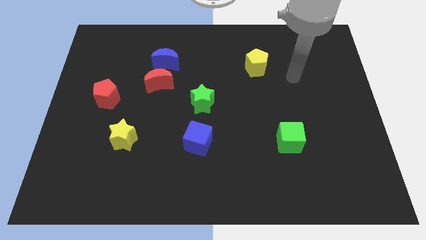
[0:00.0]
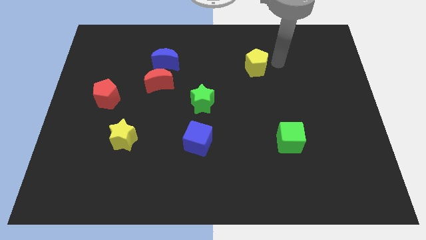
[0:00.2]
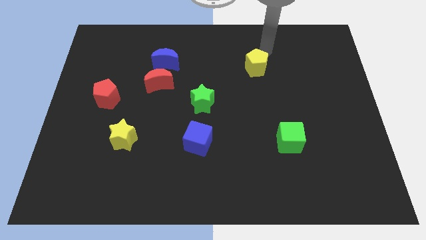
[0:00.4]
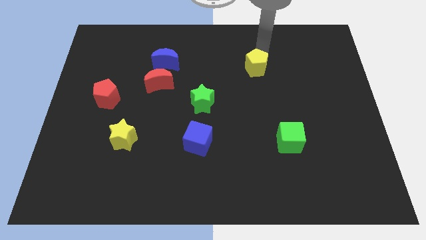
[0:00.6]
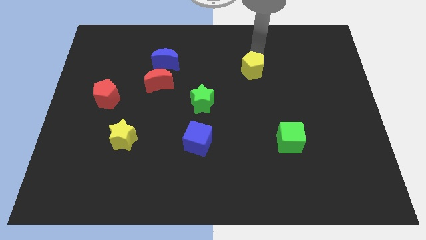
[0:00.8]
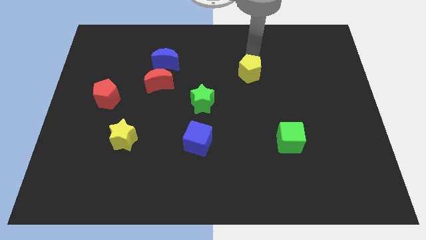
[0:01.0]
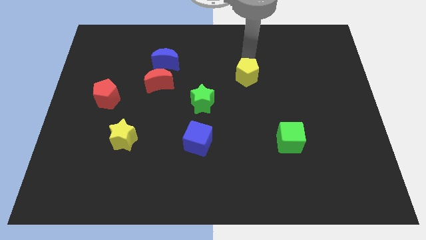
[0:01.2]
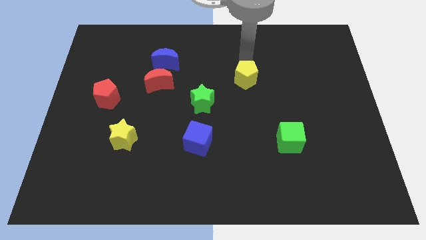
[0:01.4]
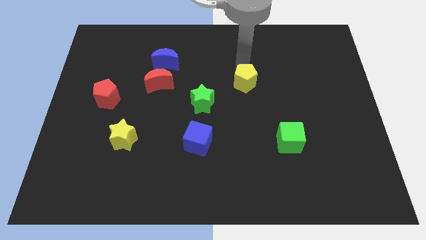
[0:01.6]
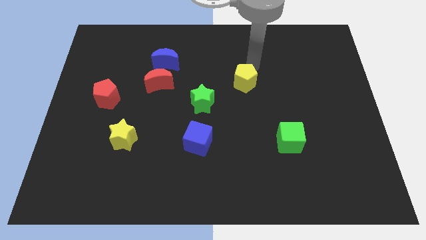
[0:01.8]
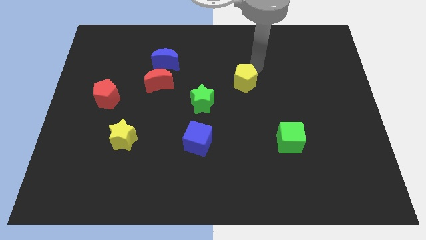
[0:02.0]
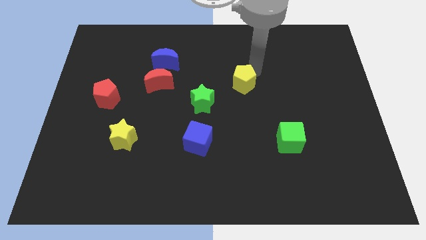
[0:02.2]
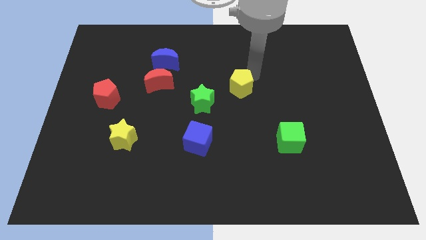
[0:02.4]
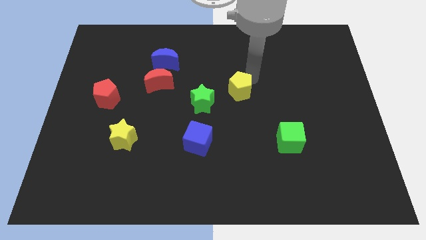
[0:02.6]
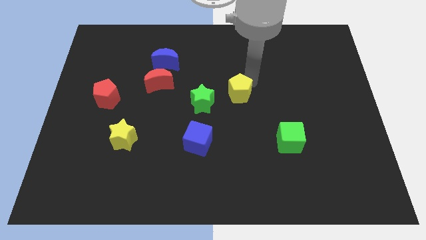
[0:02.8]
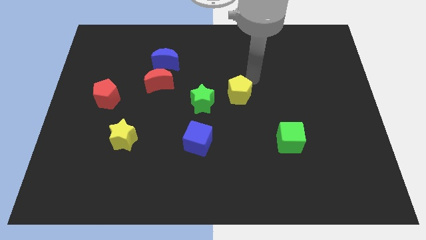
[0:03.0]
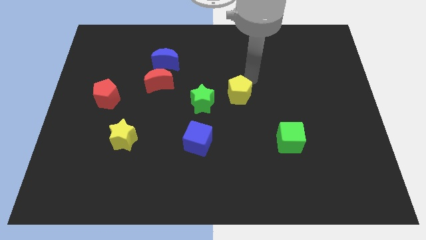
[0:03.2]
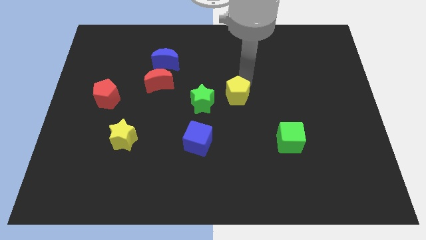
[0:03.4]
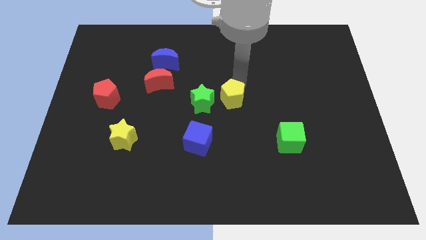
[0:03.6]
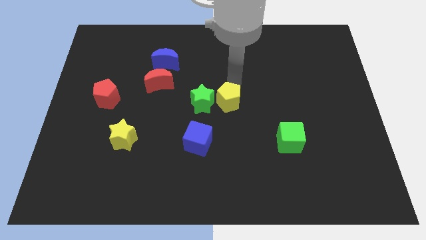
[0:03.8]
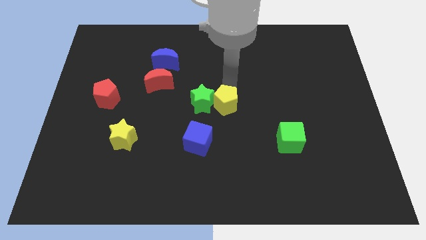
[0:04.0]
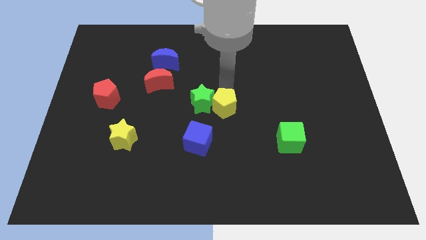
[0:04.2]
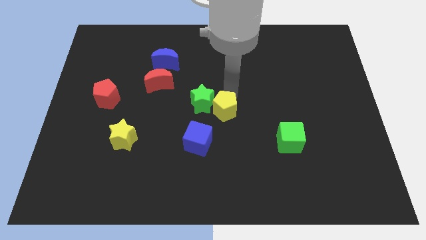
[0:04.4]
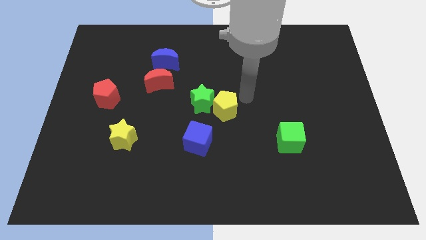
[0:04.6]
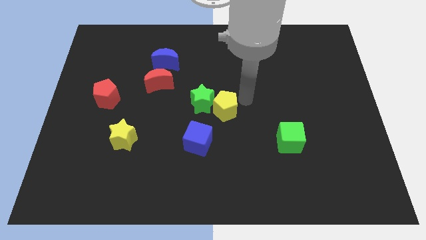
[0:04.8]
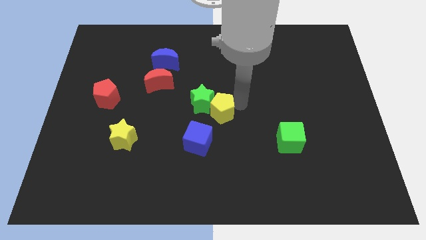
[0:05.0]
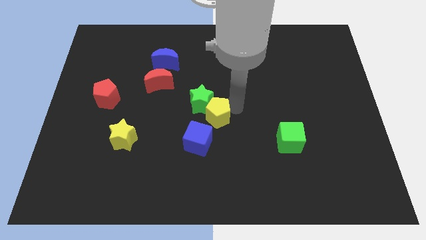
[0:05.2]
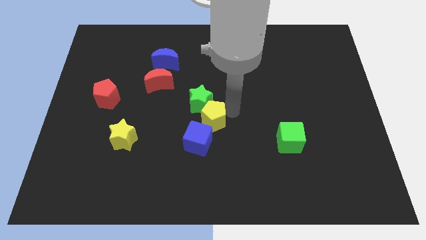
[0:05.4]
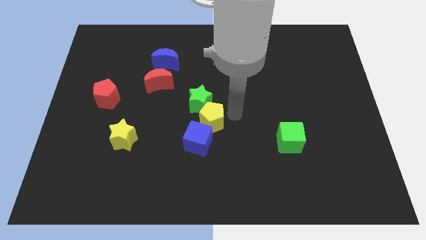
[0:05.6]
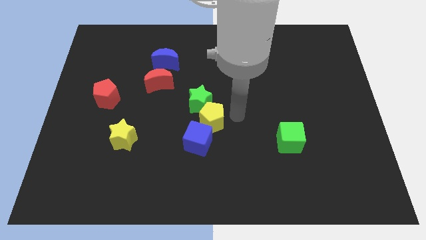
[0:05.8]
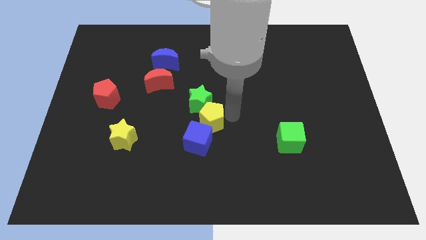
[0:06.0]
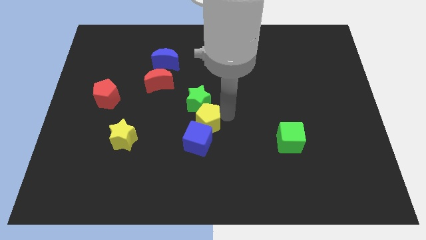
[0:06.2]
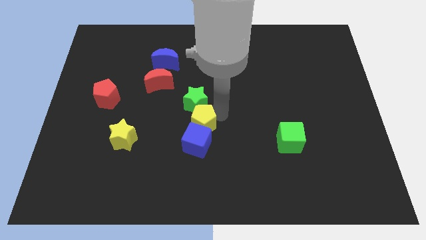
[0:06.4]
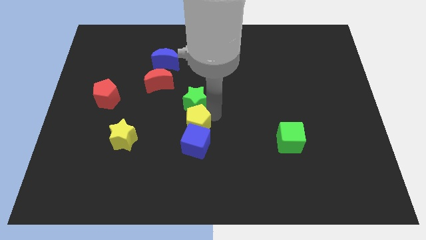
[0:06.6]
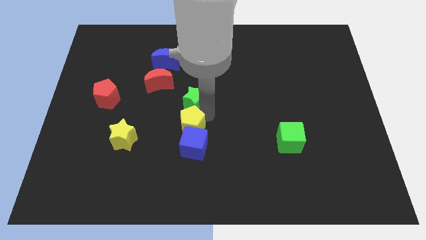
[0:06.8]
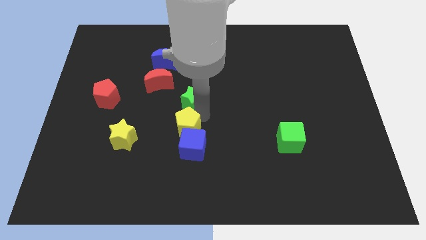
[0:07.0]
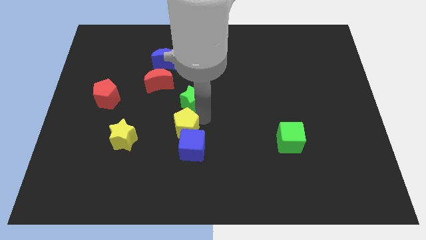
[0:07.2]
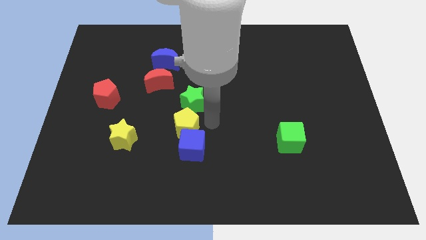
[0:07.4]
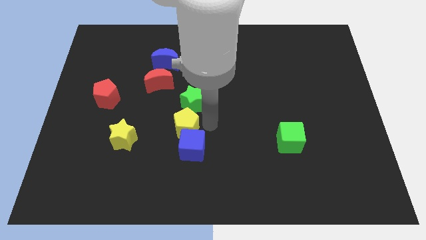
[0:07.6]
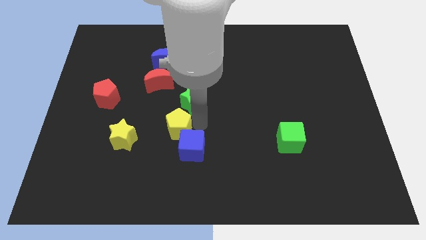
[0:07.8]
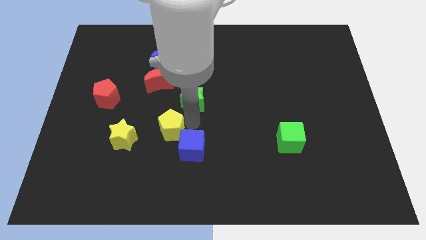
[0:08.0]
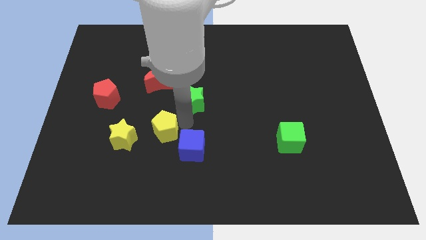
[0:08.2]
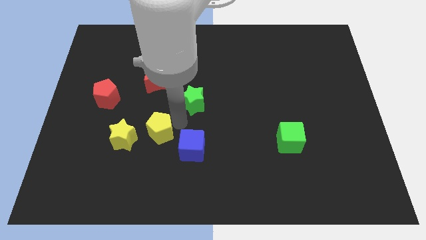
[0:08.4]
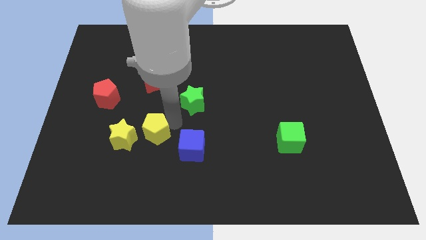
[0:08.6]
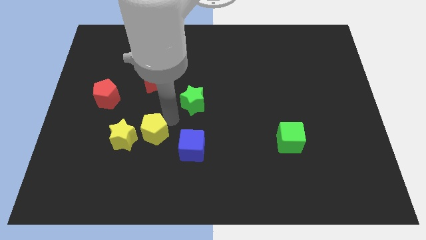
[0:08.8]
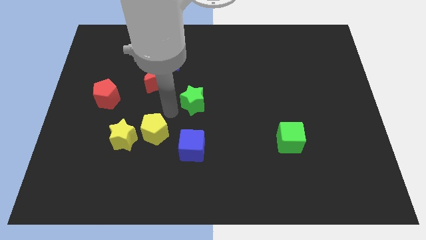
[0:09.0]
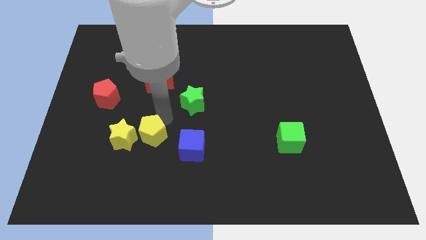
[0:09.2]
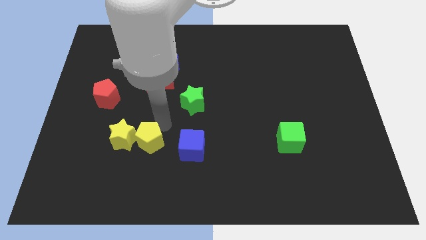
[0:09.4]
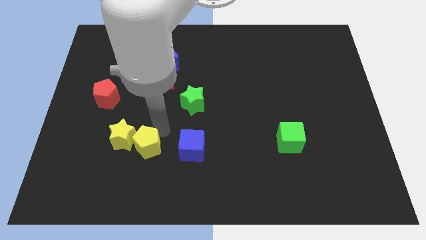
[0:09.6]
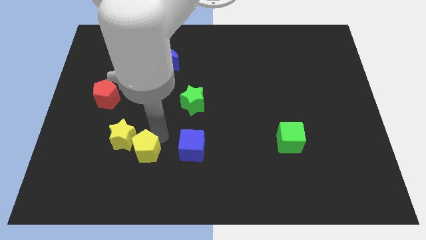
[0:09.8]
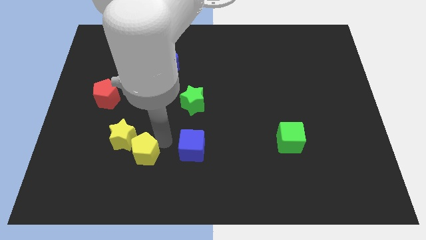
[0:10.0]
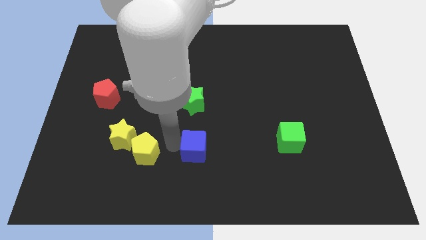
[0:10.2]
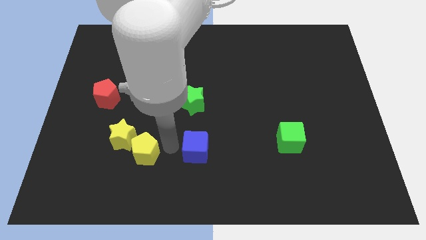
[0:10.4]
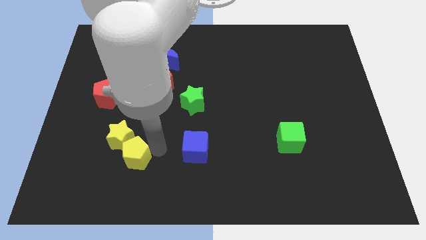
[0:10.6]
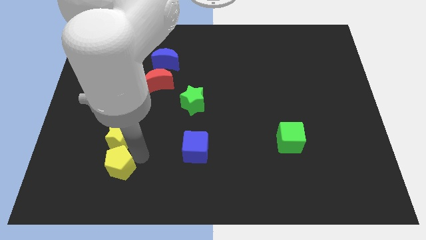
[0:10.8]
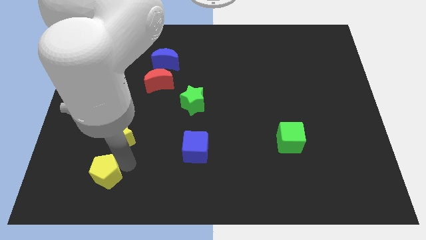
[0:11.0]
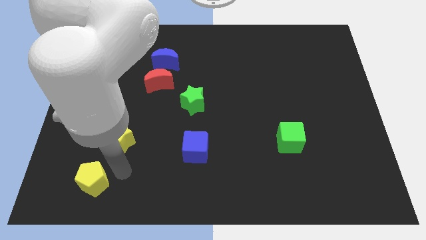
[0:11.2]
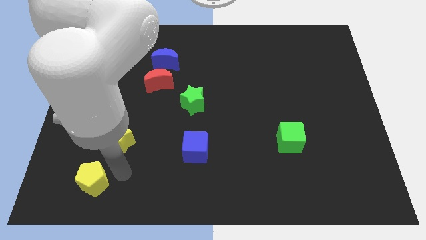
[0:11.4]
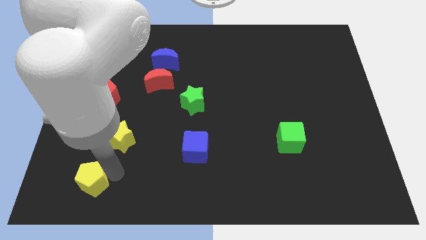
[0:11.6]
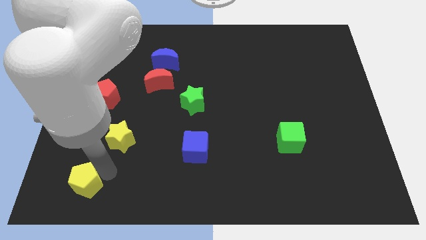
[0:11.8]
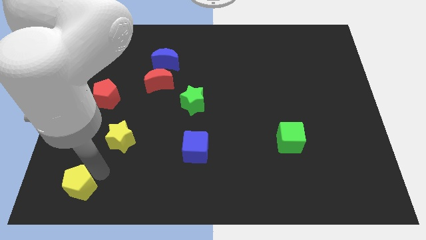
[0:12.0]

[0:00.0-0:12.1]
move the yellow pentagon to the lower left corner
